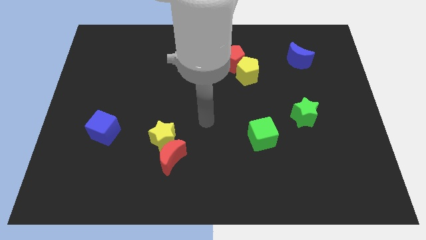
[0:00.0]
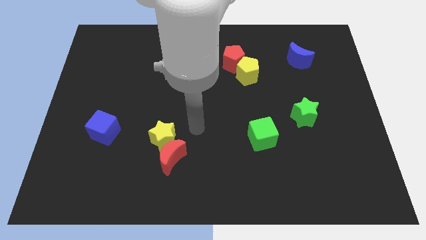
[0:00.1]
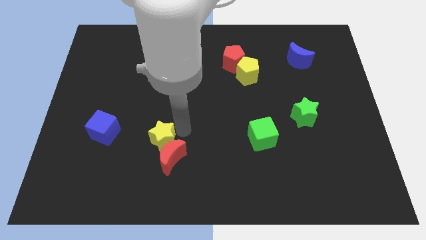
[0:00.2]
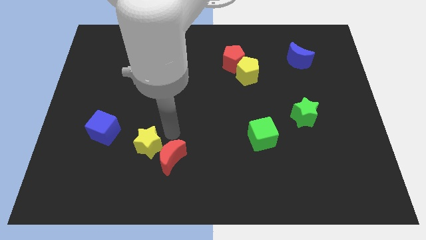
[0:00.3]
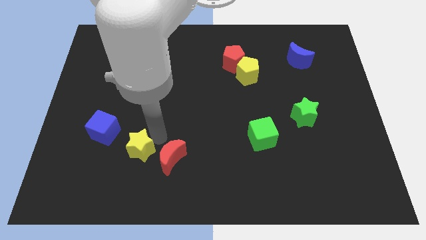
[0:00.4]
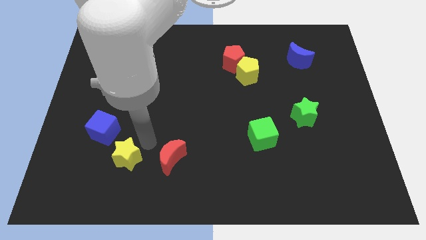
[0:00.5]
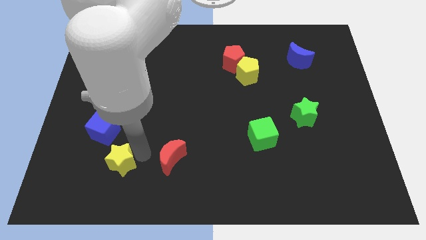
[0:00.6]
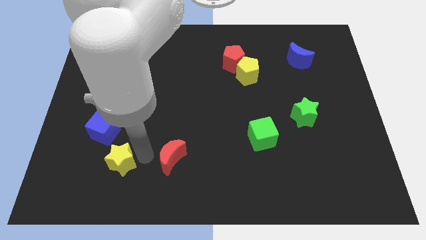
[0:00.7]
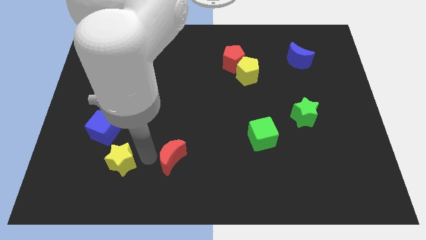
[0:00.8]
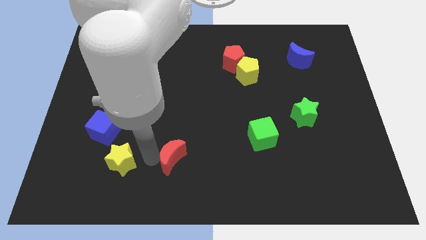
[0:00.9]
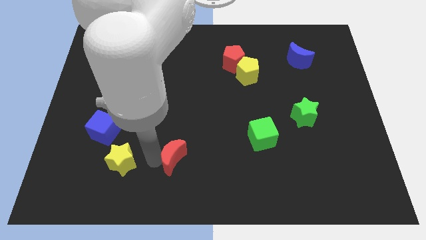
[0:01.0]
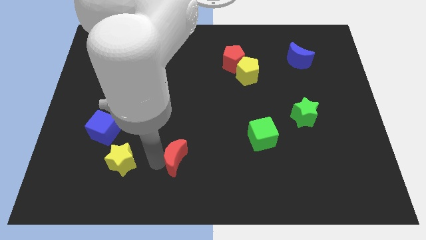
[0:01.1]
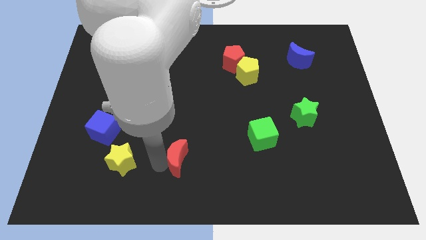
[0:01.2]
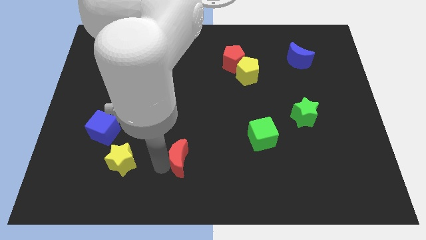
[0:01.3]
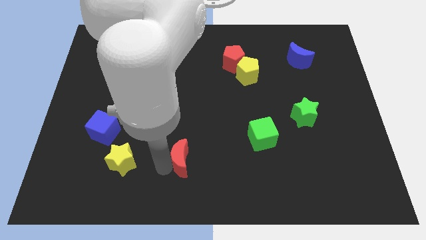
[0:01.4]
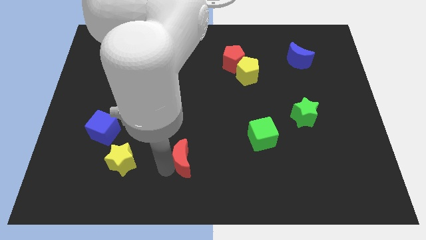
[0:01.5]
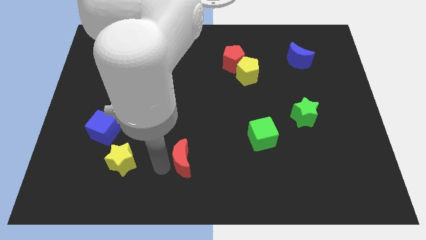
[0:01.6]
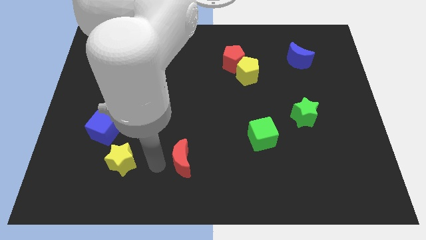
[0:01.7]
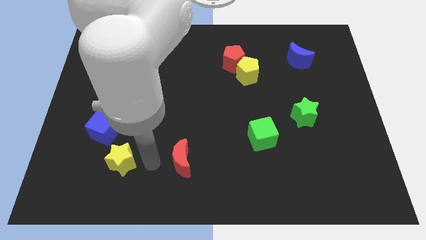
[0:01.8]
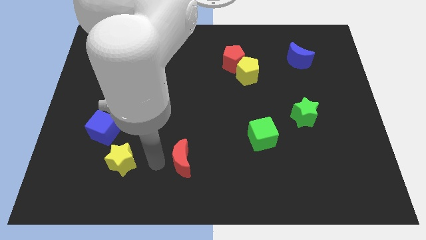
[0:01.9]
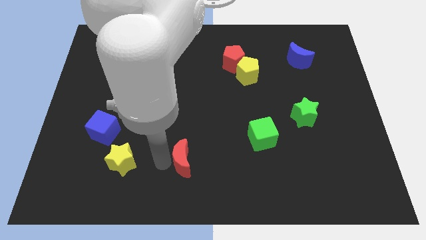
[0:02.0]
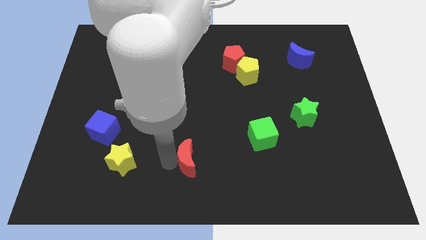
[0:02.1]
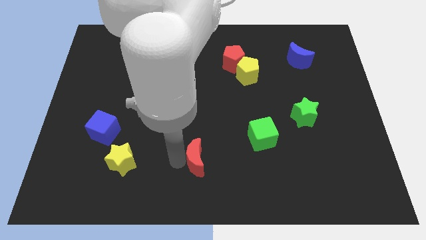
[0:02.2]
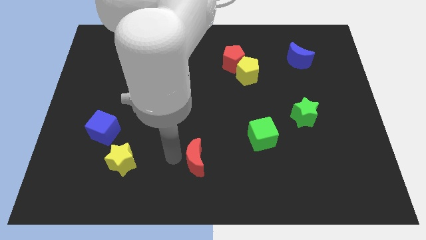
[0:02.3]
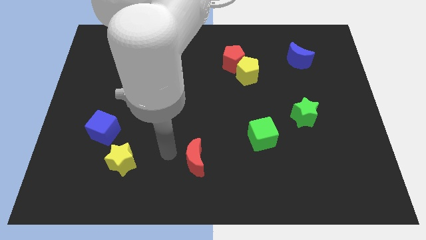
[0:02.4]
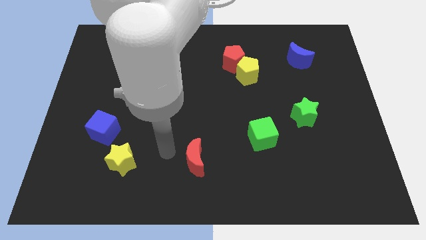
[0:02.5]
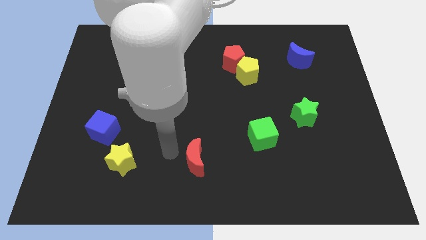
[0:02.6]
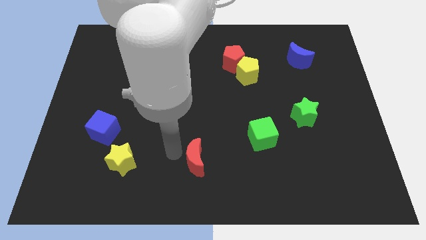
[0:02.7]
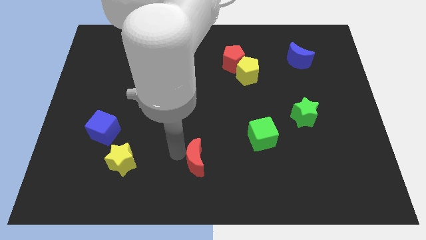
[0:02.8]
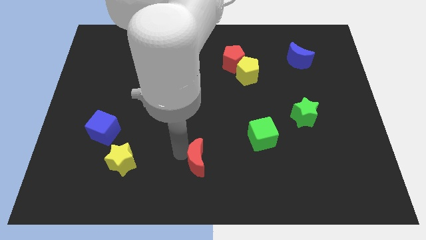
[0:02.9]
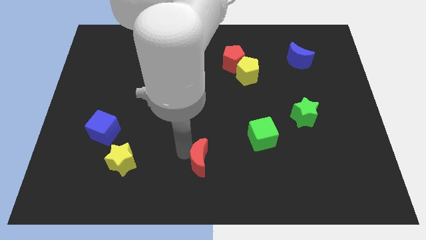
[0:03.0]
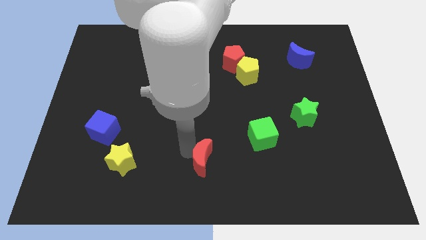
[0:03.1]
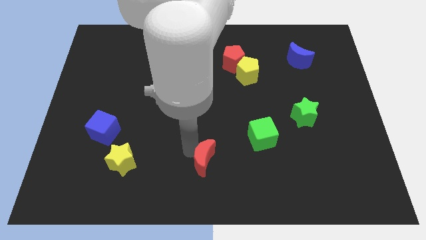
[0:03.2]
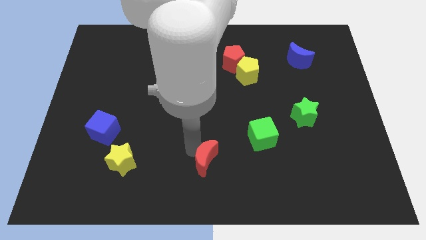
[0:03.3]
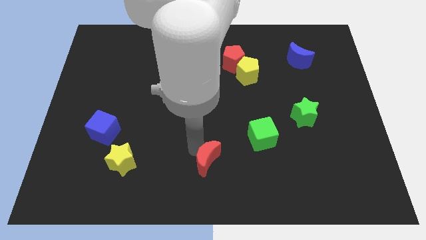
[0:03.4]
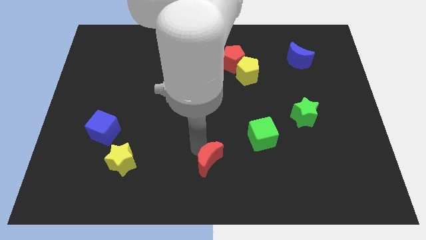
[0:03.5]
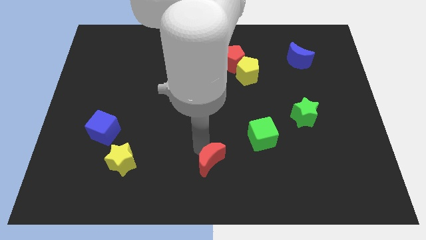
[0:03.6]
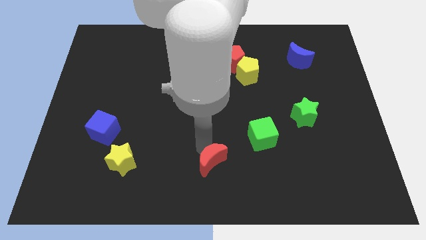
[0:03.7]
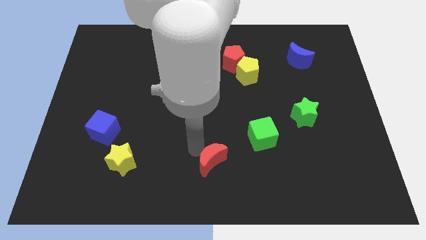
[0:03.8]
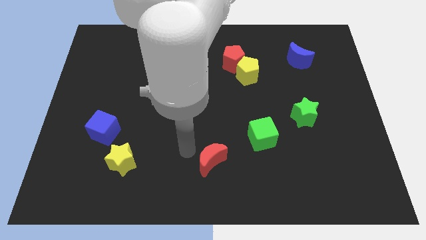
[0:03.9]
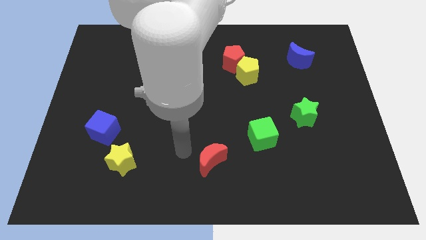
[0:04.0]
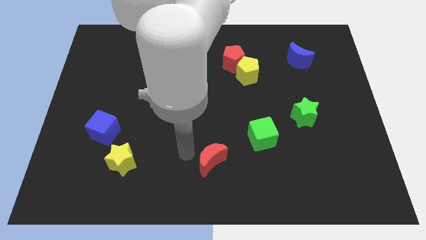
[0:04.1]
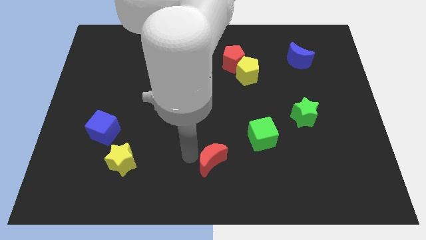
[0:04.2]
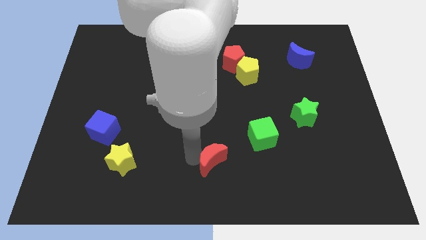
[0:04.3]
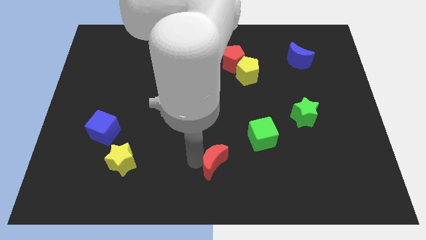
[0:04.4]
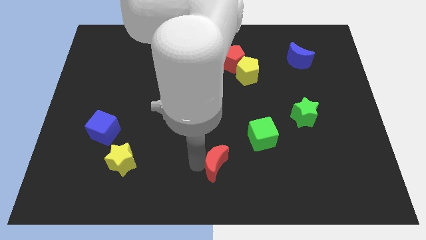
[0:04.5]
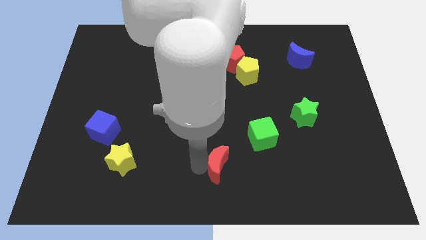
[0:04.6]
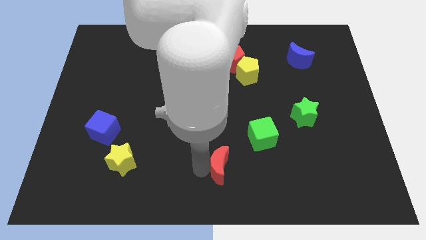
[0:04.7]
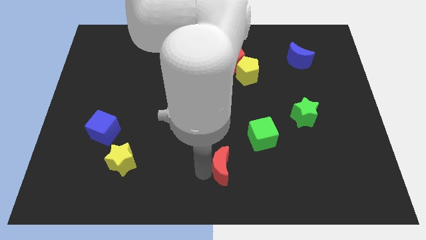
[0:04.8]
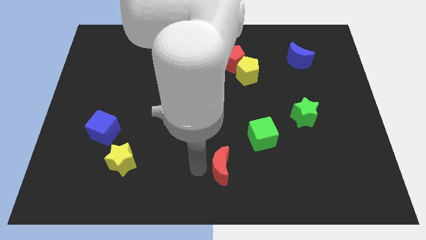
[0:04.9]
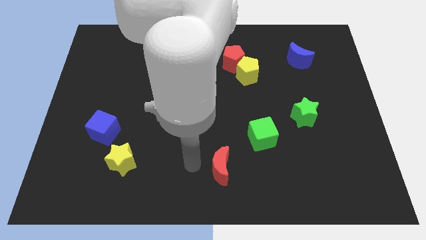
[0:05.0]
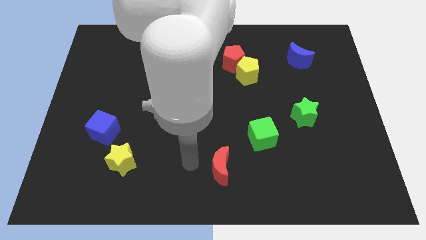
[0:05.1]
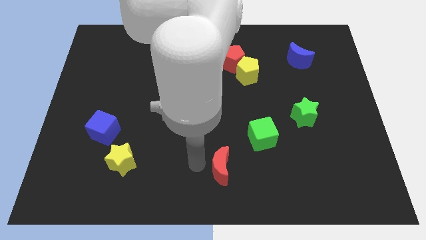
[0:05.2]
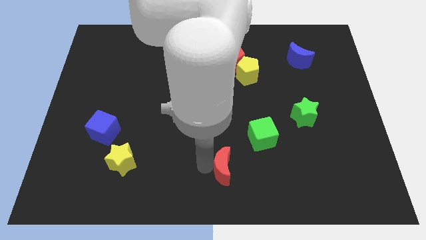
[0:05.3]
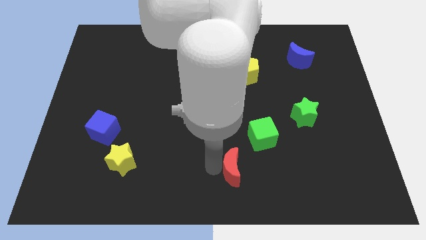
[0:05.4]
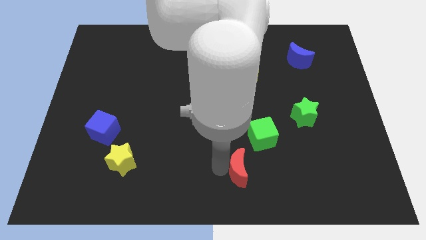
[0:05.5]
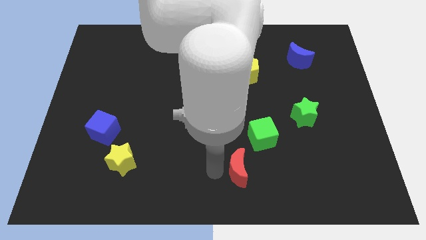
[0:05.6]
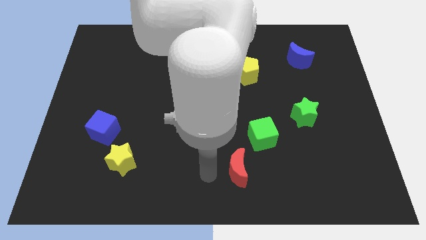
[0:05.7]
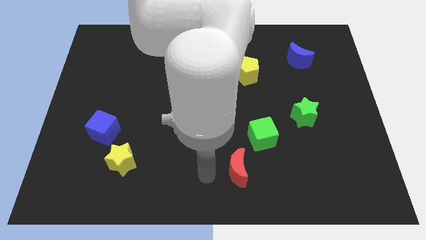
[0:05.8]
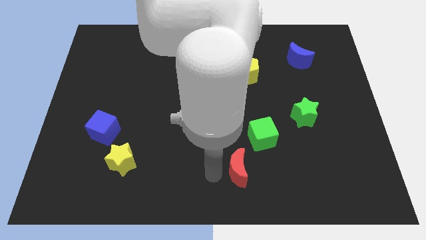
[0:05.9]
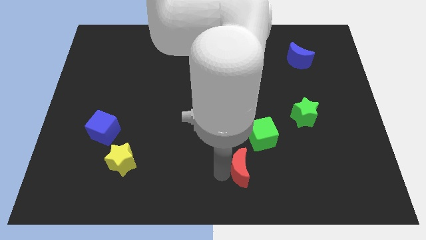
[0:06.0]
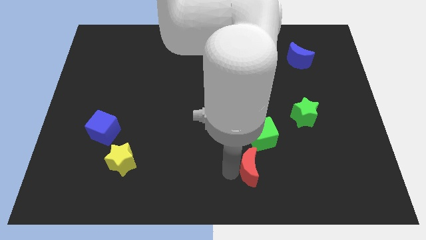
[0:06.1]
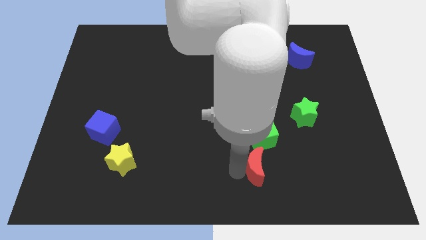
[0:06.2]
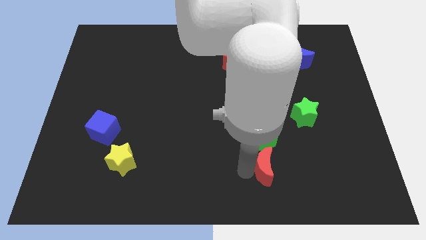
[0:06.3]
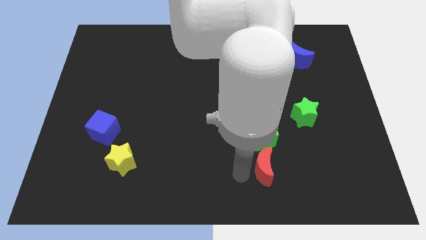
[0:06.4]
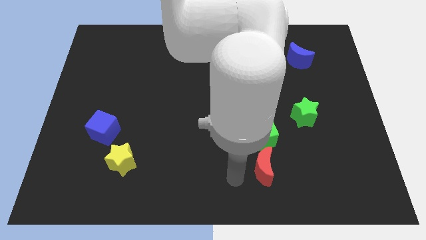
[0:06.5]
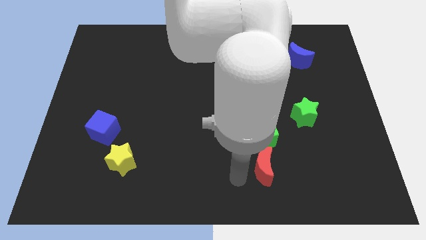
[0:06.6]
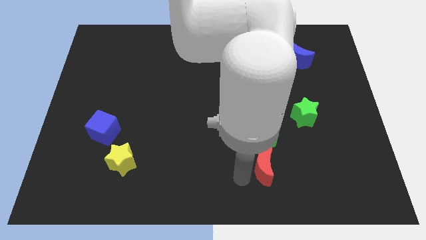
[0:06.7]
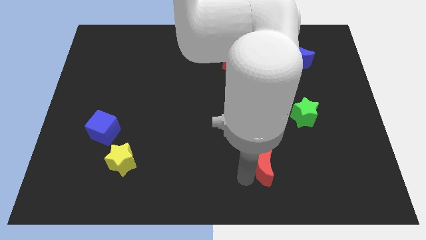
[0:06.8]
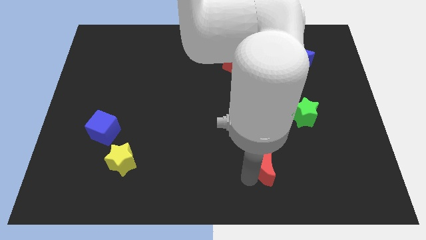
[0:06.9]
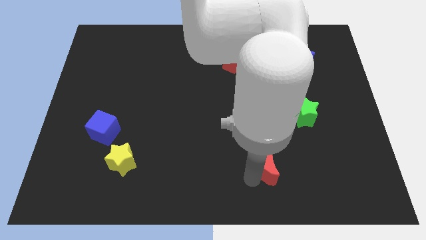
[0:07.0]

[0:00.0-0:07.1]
push the red moon to the right

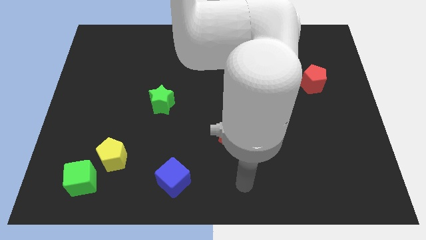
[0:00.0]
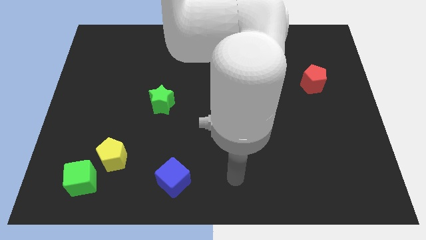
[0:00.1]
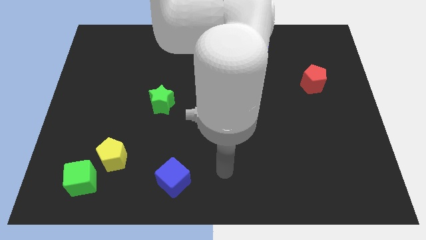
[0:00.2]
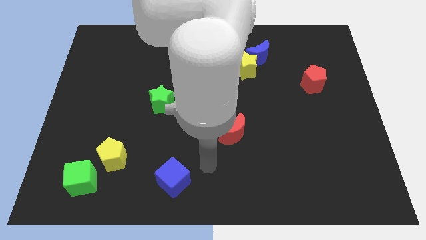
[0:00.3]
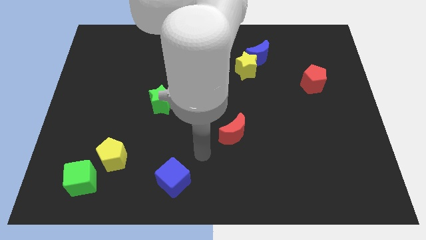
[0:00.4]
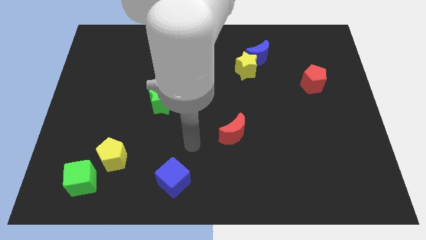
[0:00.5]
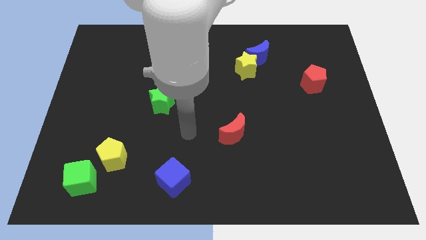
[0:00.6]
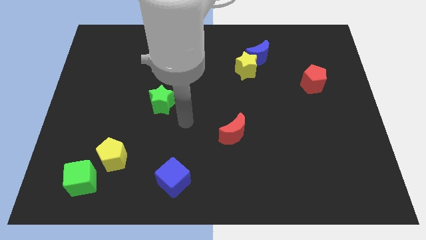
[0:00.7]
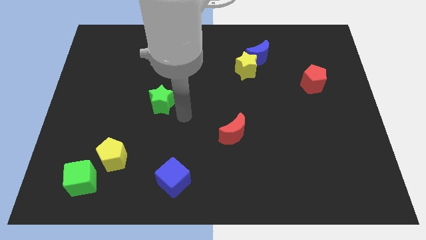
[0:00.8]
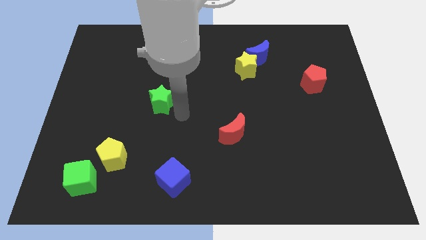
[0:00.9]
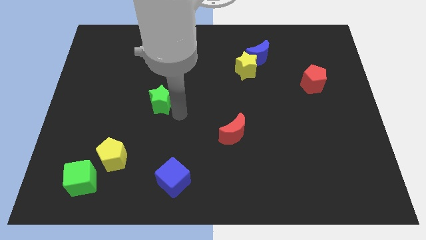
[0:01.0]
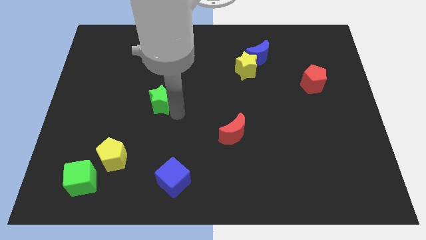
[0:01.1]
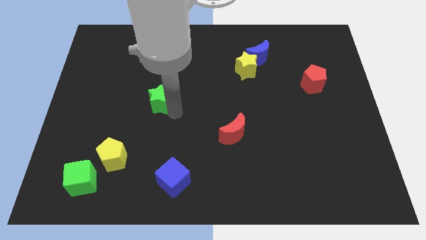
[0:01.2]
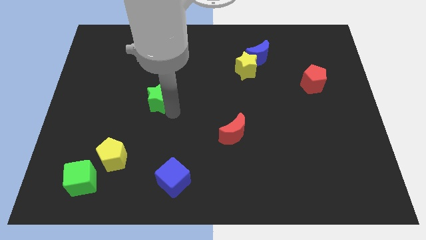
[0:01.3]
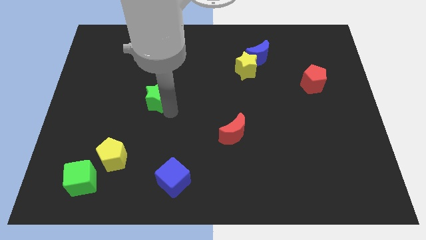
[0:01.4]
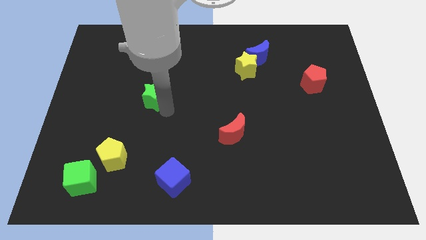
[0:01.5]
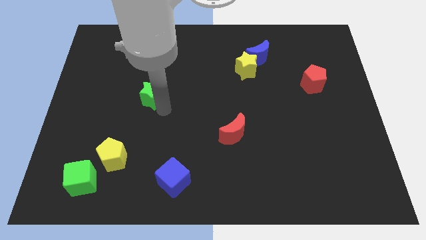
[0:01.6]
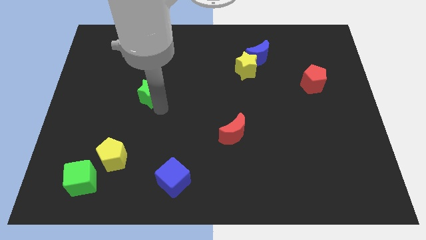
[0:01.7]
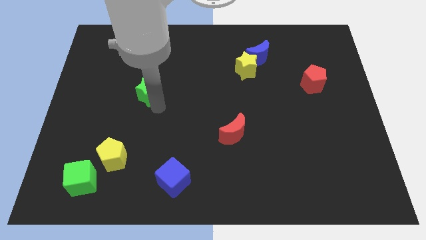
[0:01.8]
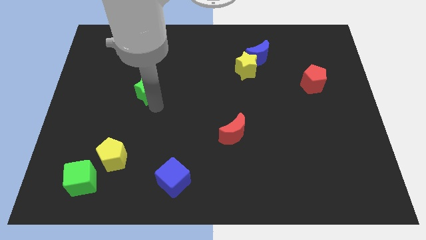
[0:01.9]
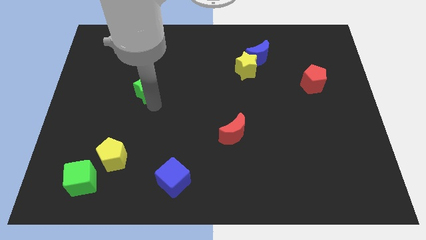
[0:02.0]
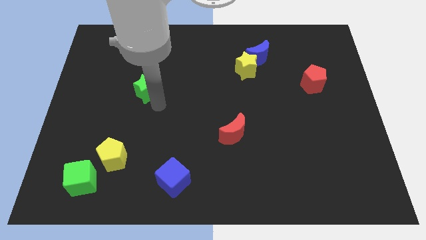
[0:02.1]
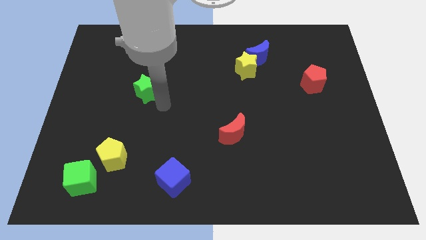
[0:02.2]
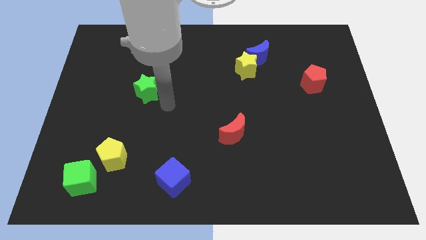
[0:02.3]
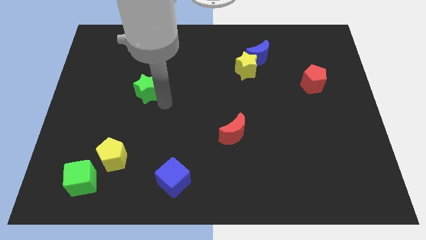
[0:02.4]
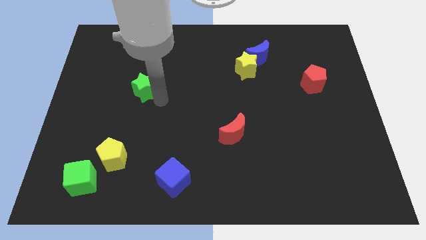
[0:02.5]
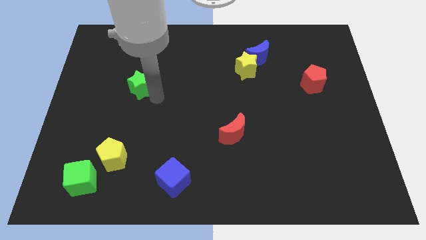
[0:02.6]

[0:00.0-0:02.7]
slightly slide the green star diagonally upwards and left
